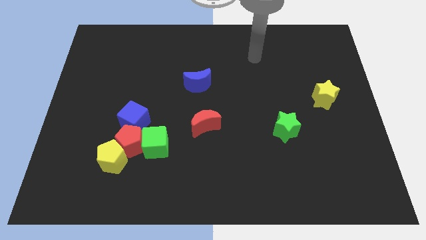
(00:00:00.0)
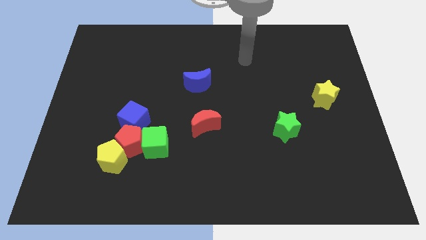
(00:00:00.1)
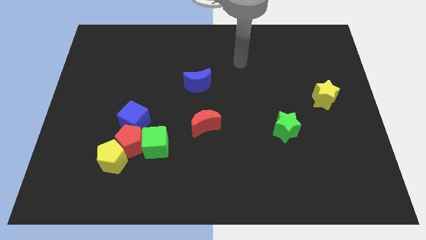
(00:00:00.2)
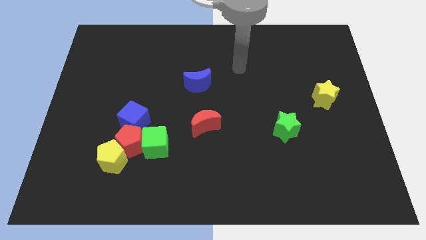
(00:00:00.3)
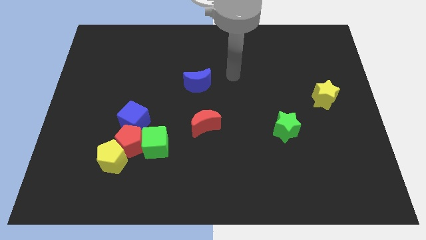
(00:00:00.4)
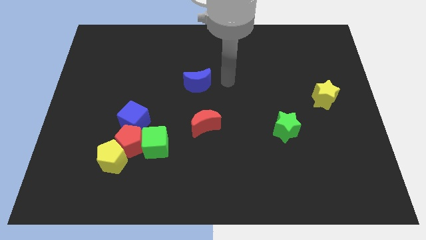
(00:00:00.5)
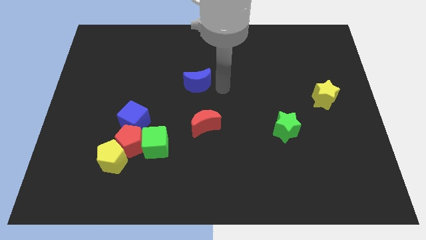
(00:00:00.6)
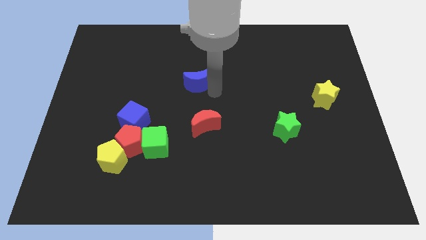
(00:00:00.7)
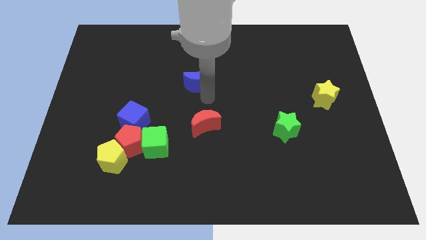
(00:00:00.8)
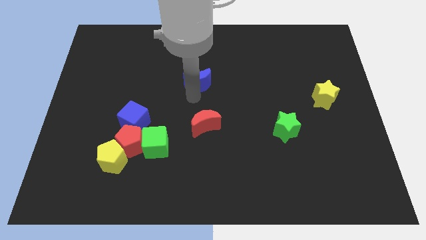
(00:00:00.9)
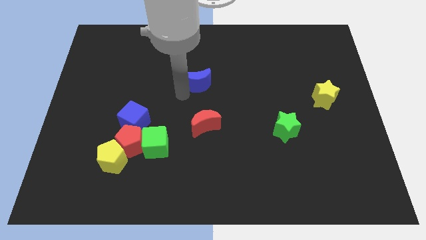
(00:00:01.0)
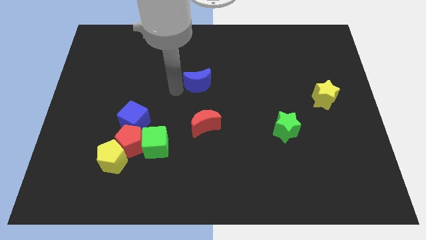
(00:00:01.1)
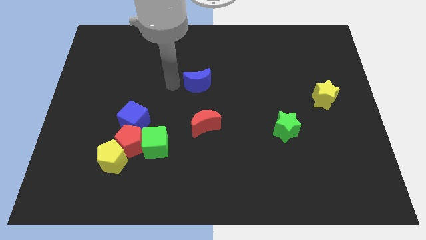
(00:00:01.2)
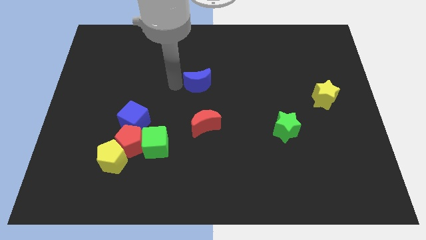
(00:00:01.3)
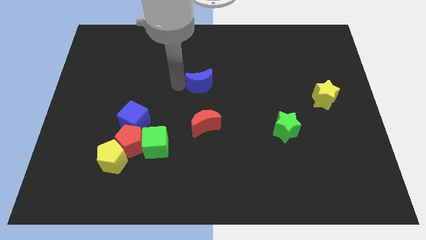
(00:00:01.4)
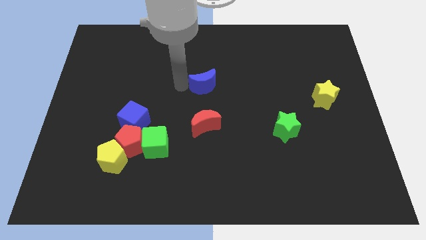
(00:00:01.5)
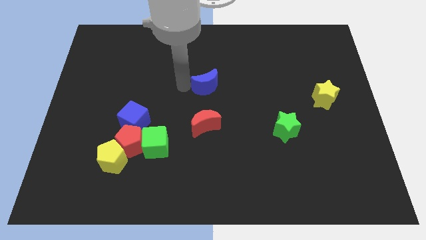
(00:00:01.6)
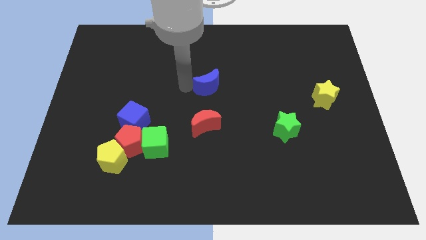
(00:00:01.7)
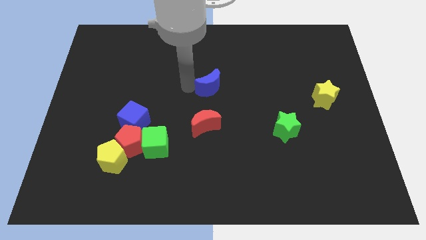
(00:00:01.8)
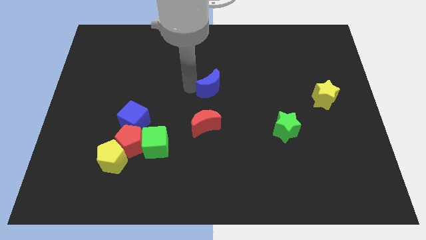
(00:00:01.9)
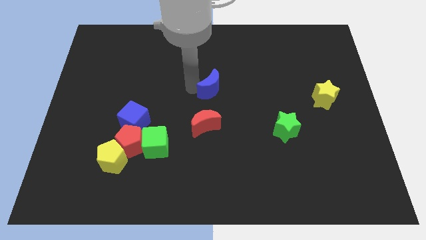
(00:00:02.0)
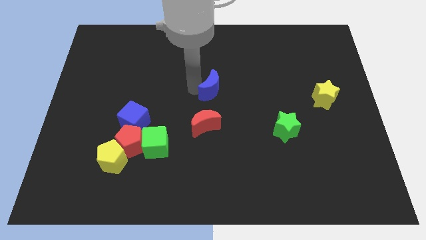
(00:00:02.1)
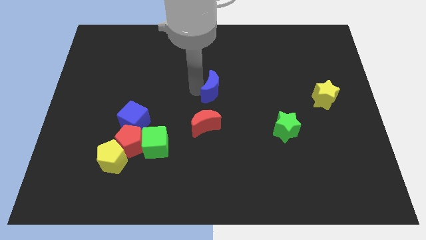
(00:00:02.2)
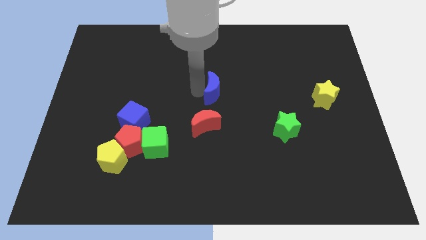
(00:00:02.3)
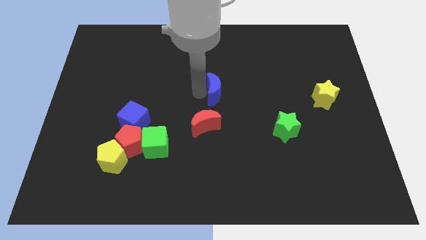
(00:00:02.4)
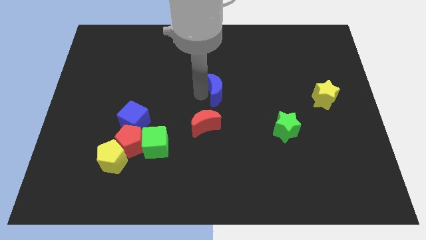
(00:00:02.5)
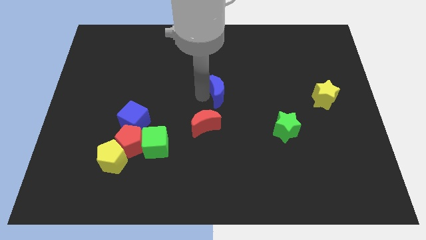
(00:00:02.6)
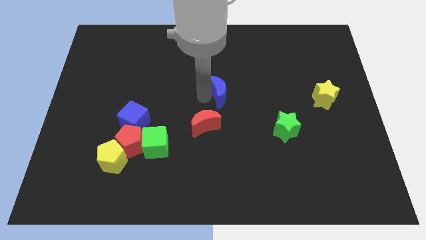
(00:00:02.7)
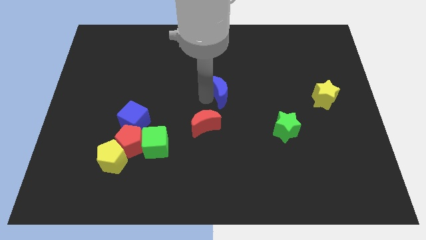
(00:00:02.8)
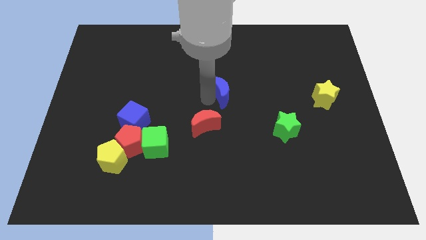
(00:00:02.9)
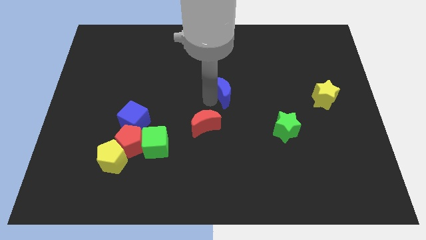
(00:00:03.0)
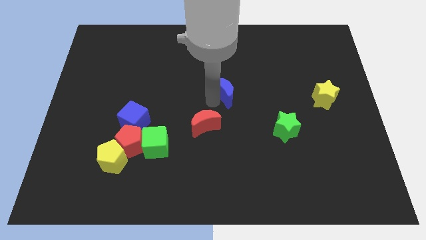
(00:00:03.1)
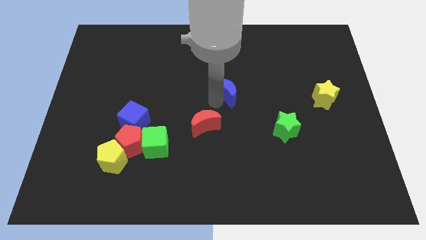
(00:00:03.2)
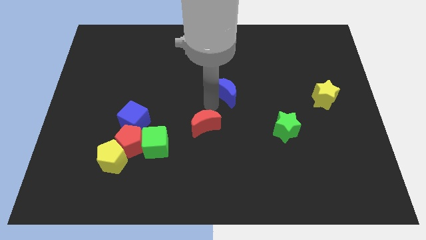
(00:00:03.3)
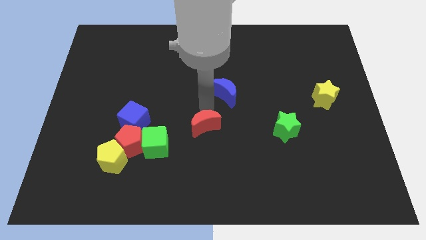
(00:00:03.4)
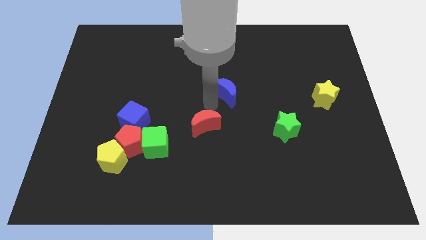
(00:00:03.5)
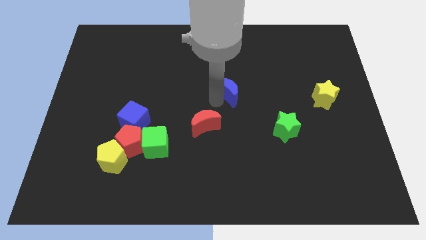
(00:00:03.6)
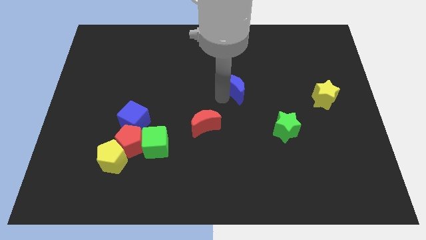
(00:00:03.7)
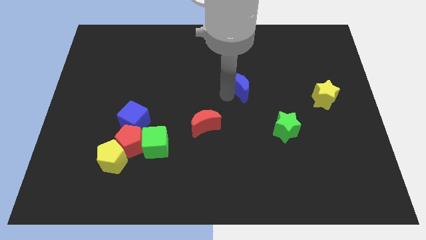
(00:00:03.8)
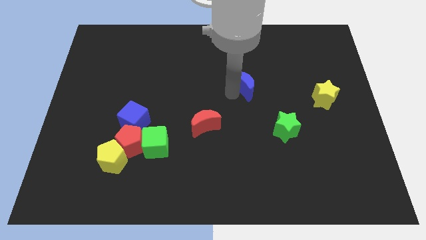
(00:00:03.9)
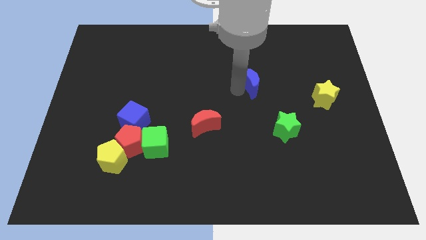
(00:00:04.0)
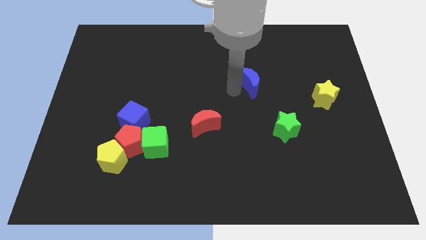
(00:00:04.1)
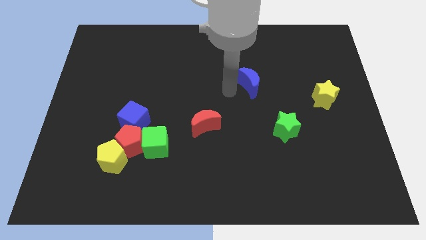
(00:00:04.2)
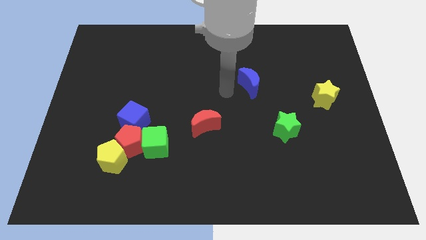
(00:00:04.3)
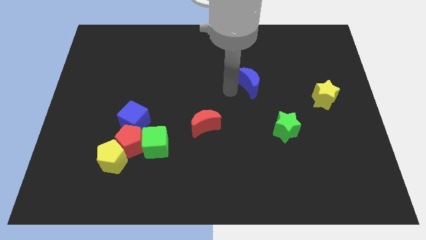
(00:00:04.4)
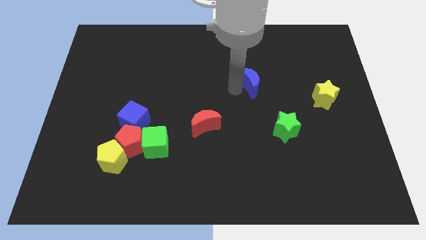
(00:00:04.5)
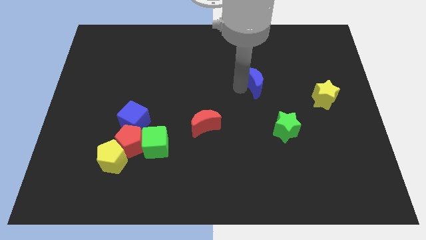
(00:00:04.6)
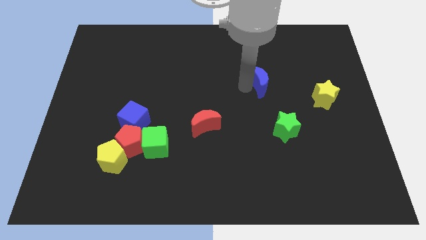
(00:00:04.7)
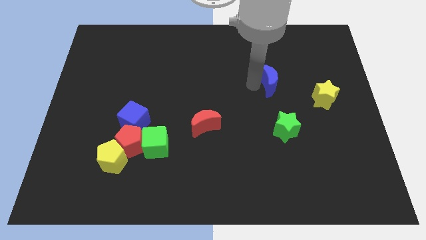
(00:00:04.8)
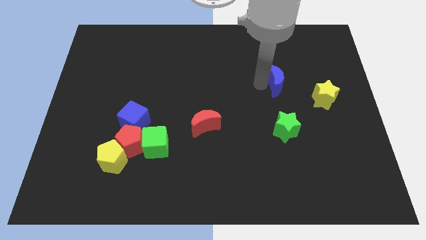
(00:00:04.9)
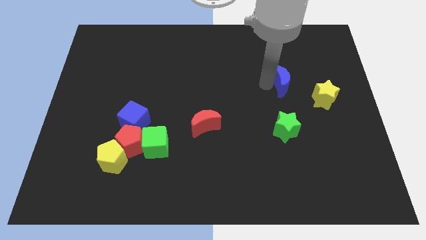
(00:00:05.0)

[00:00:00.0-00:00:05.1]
move the blue moon right

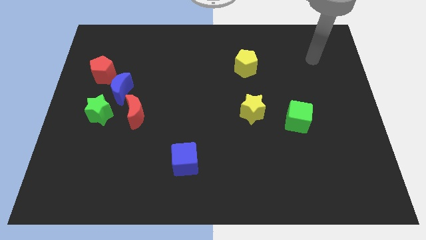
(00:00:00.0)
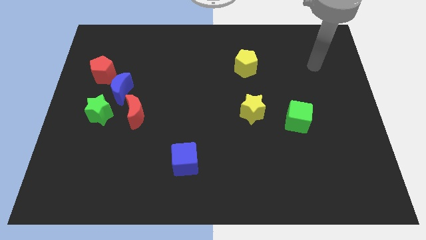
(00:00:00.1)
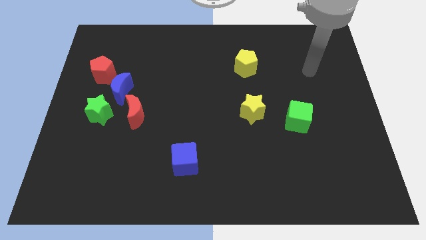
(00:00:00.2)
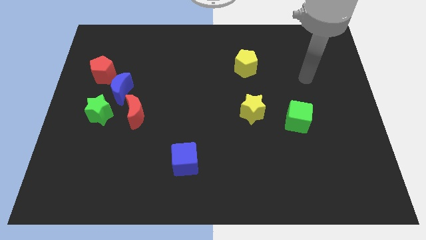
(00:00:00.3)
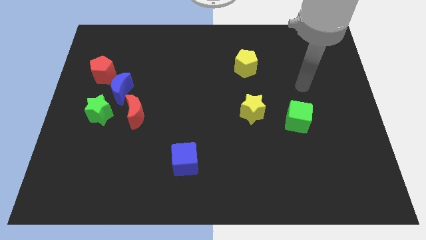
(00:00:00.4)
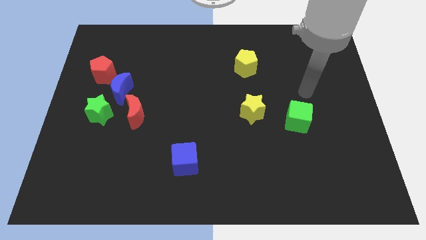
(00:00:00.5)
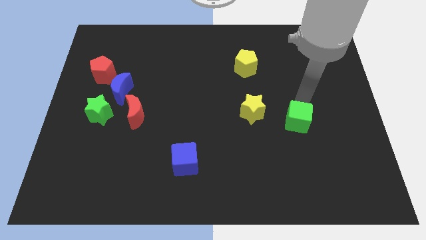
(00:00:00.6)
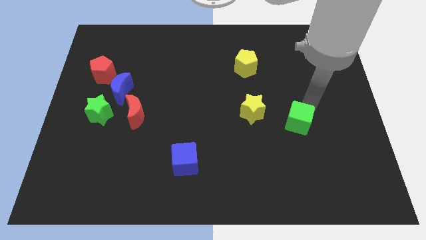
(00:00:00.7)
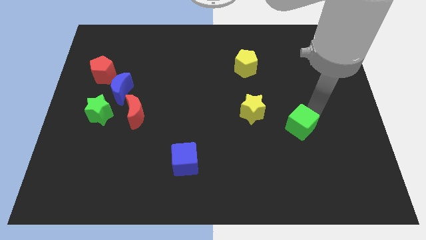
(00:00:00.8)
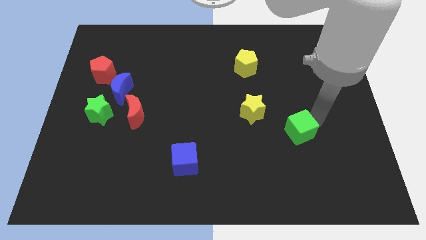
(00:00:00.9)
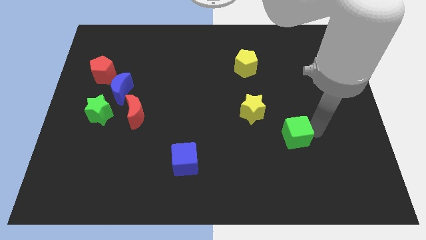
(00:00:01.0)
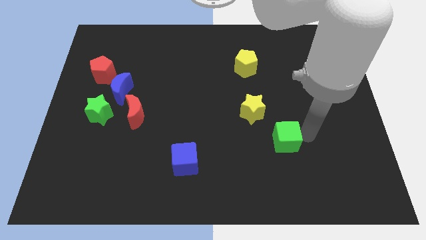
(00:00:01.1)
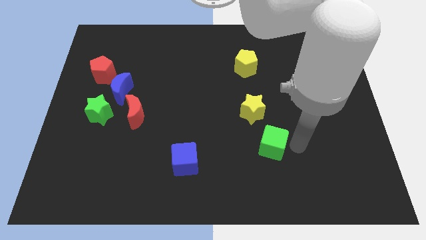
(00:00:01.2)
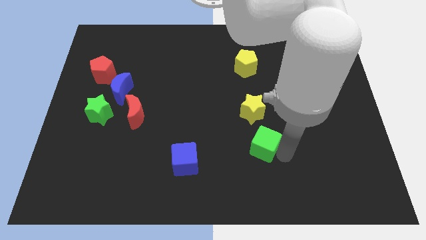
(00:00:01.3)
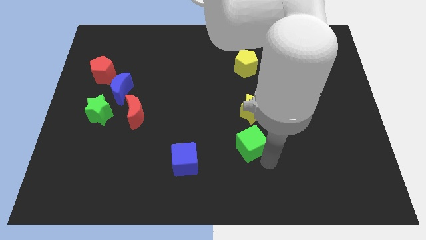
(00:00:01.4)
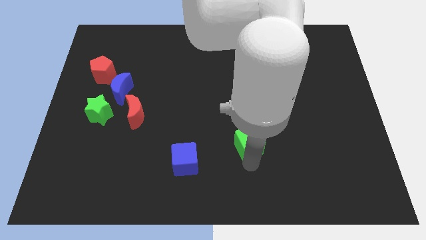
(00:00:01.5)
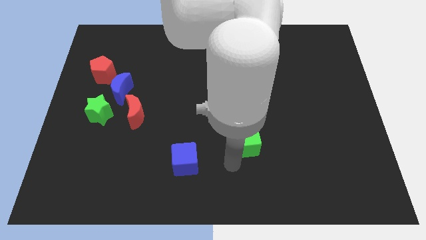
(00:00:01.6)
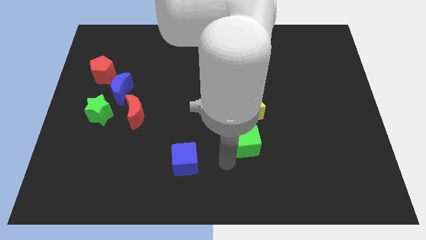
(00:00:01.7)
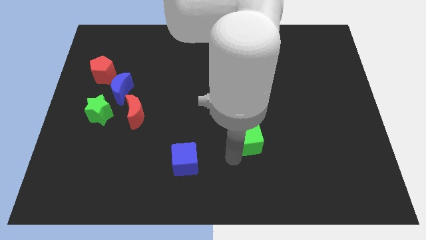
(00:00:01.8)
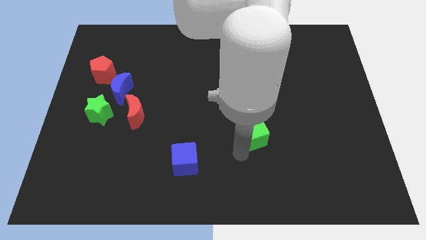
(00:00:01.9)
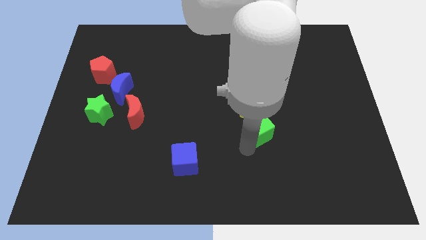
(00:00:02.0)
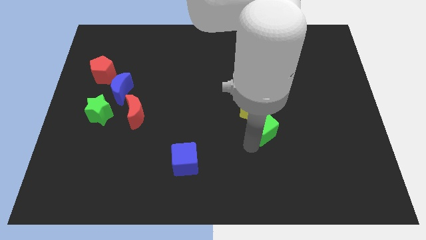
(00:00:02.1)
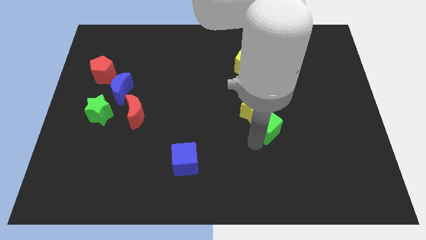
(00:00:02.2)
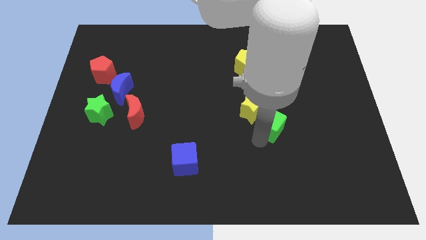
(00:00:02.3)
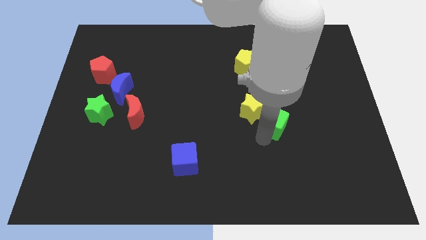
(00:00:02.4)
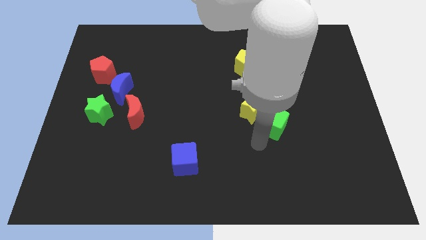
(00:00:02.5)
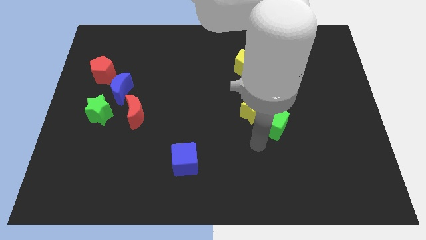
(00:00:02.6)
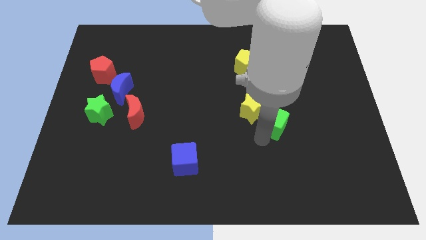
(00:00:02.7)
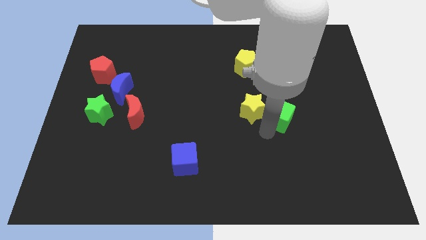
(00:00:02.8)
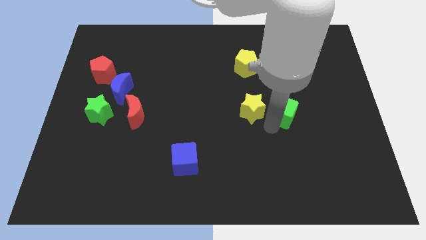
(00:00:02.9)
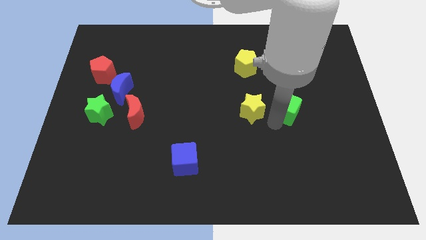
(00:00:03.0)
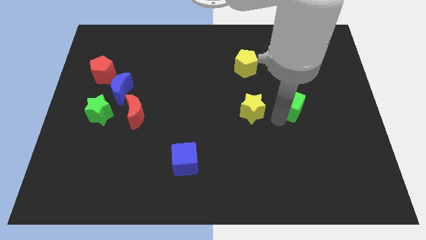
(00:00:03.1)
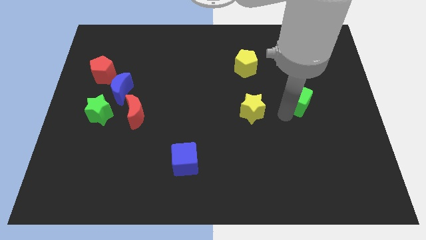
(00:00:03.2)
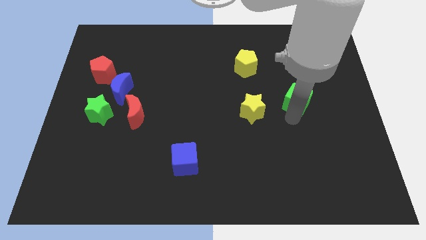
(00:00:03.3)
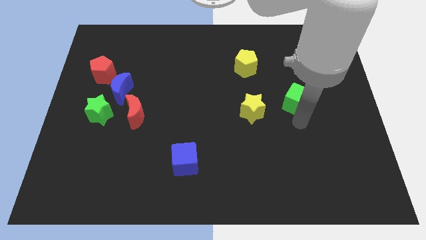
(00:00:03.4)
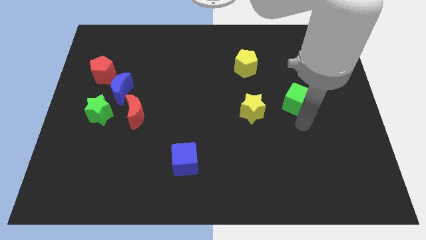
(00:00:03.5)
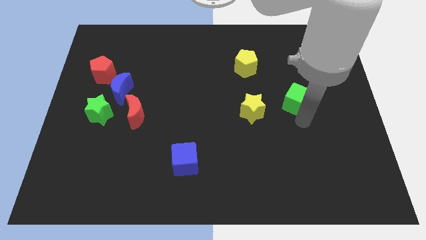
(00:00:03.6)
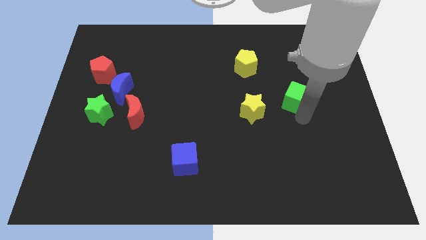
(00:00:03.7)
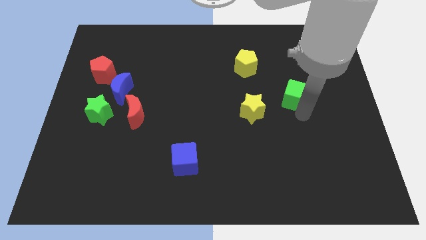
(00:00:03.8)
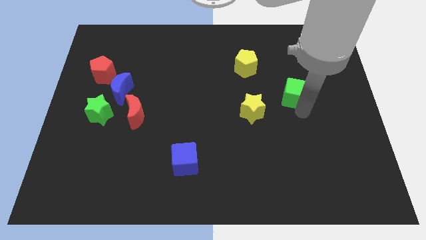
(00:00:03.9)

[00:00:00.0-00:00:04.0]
slide the green cube upwards a little bit
